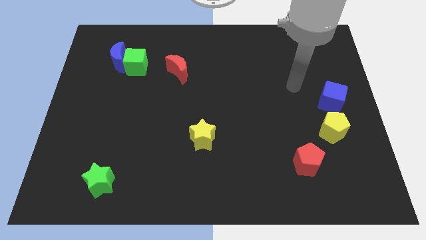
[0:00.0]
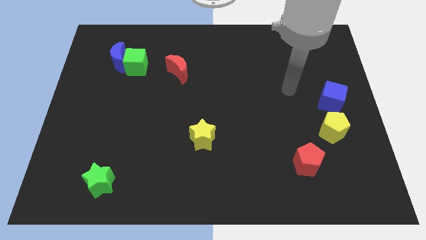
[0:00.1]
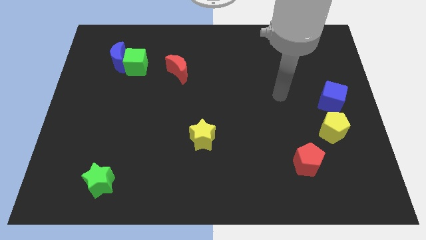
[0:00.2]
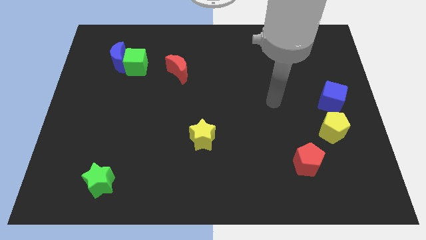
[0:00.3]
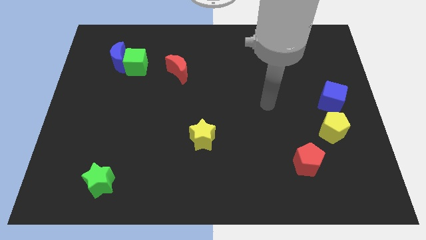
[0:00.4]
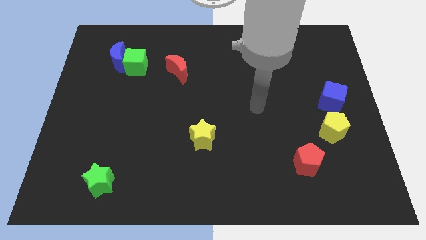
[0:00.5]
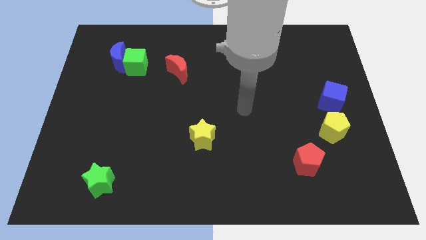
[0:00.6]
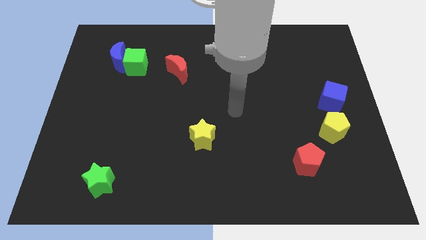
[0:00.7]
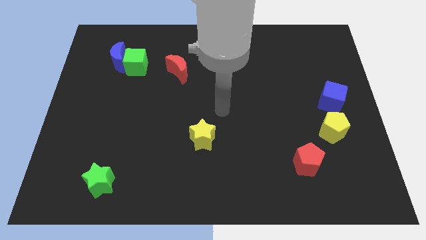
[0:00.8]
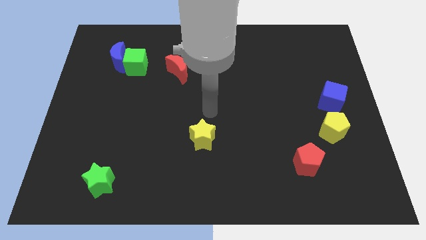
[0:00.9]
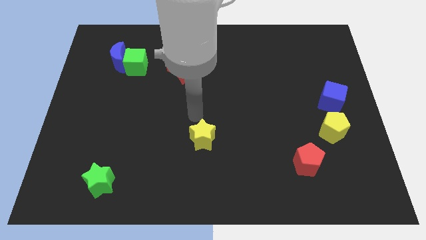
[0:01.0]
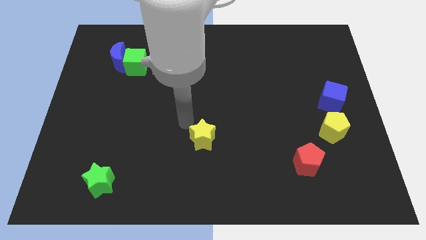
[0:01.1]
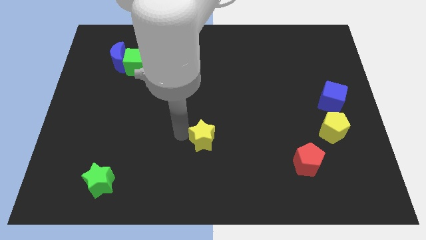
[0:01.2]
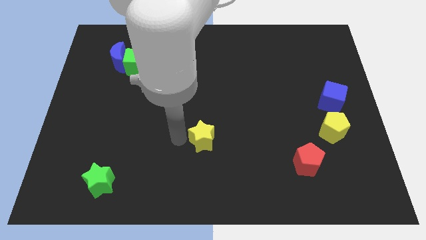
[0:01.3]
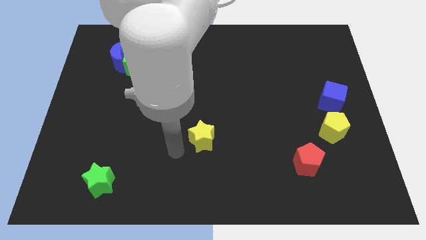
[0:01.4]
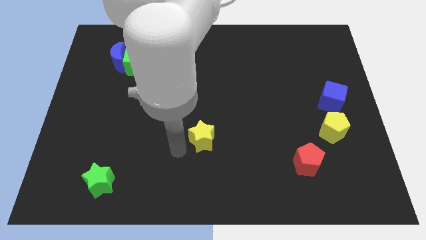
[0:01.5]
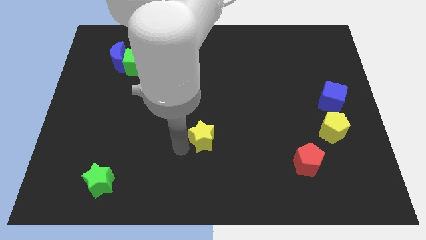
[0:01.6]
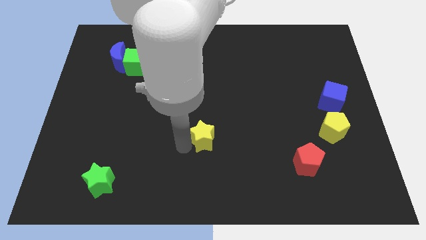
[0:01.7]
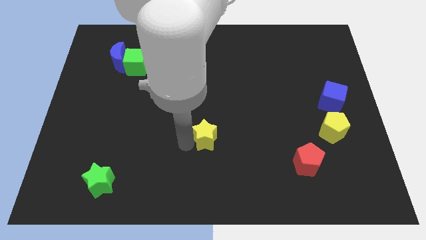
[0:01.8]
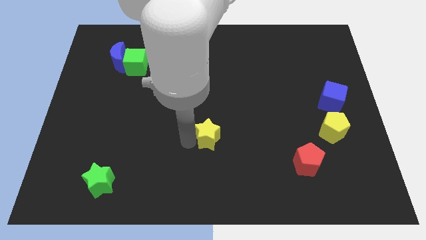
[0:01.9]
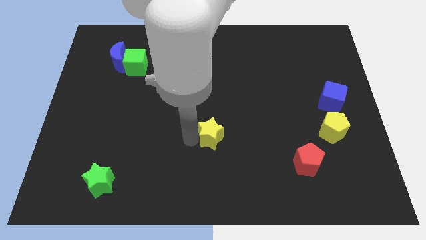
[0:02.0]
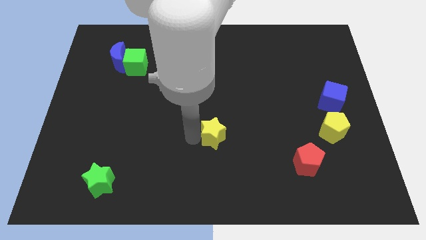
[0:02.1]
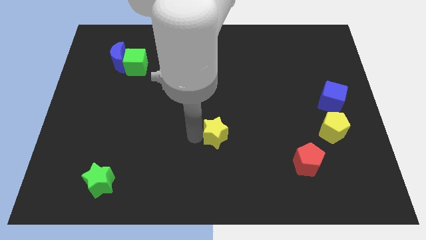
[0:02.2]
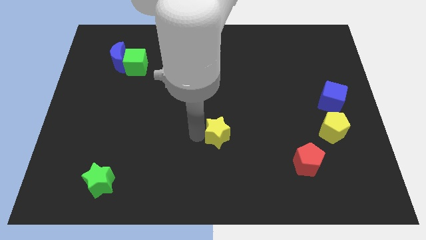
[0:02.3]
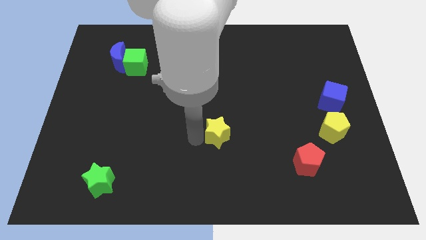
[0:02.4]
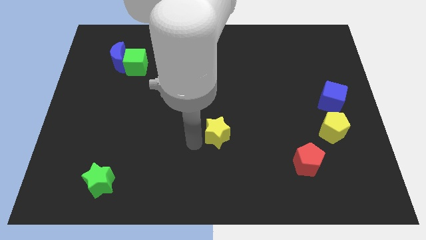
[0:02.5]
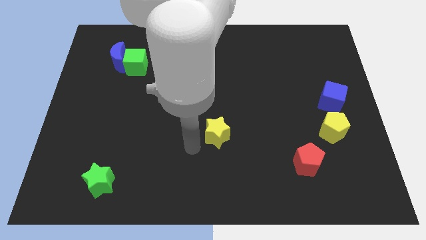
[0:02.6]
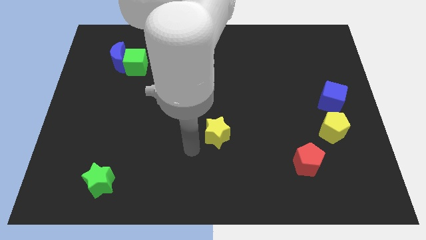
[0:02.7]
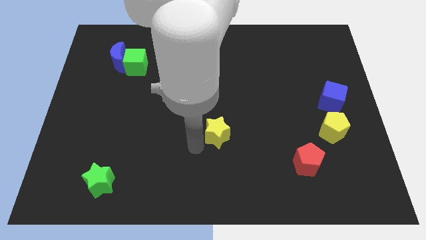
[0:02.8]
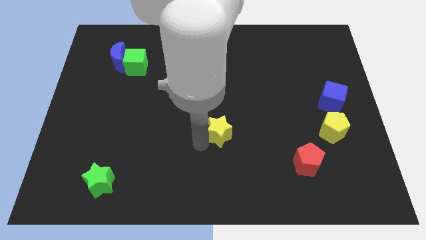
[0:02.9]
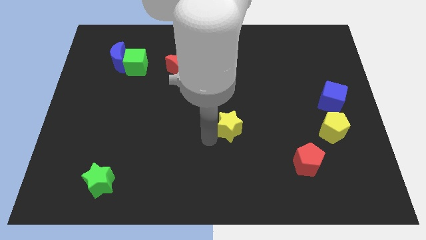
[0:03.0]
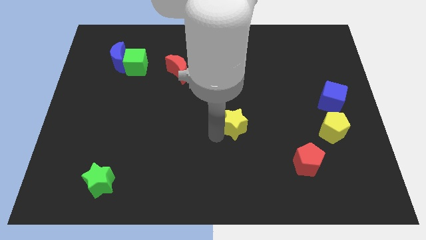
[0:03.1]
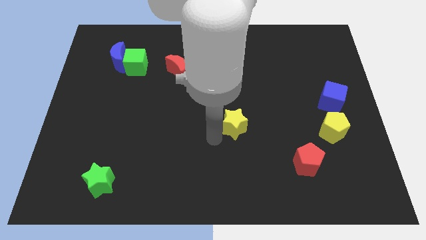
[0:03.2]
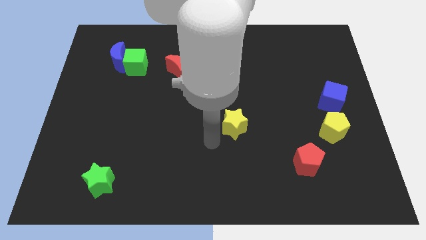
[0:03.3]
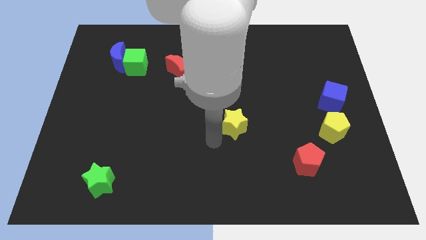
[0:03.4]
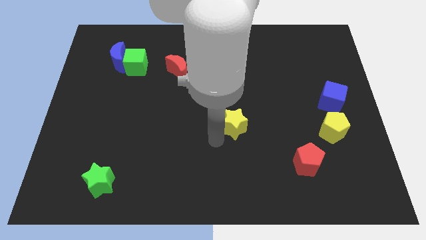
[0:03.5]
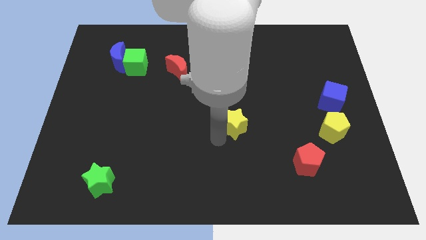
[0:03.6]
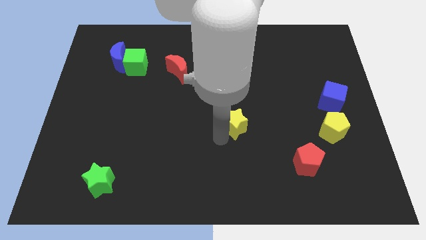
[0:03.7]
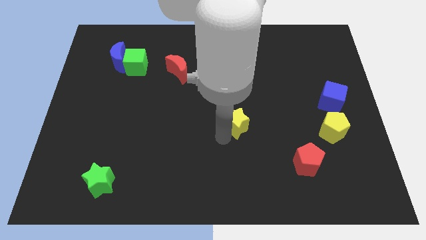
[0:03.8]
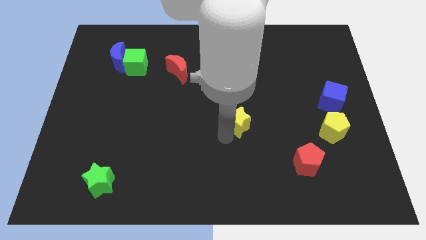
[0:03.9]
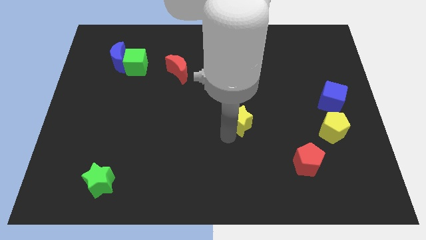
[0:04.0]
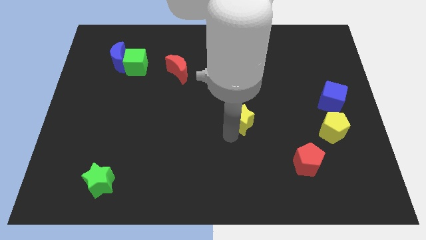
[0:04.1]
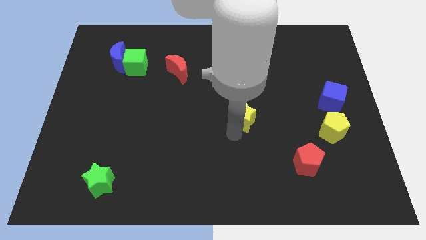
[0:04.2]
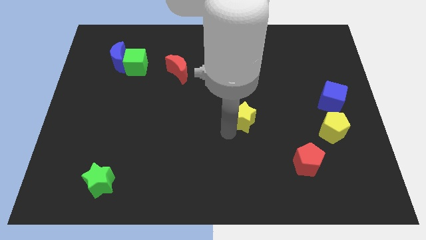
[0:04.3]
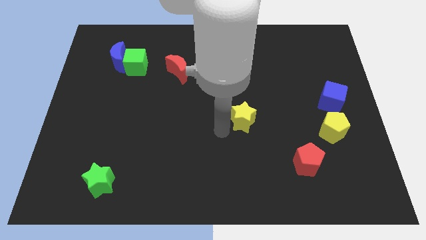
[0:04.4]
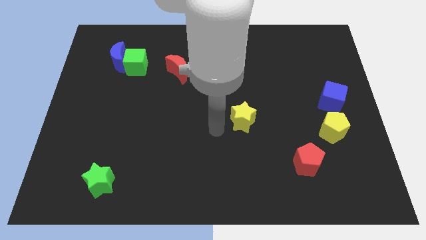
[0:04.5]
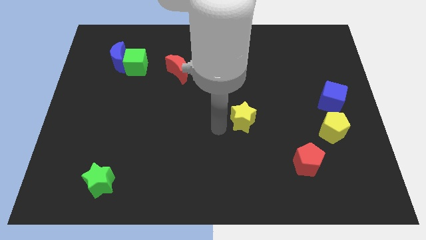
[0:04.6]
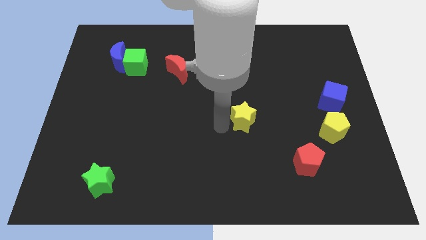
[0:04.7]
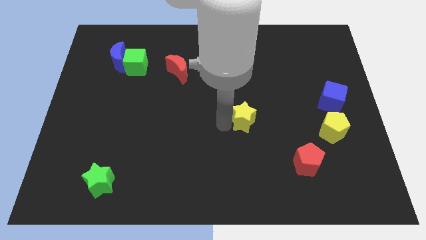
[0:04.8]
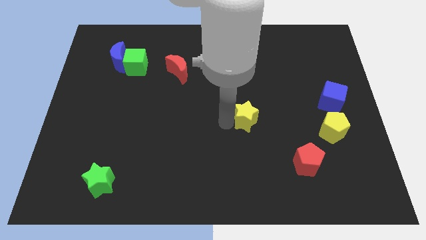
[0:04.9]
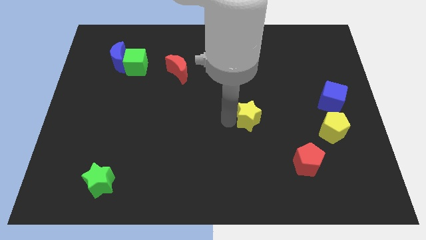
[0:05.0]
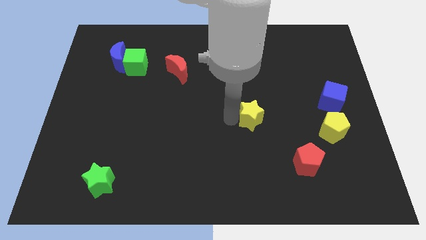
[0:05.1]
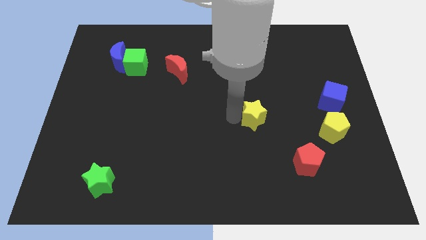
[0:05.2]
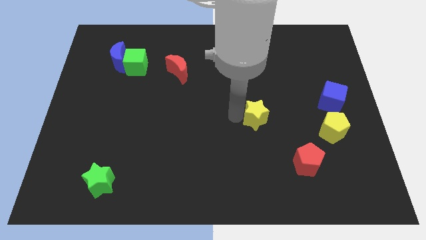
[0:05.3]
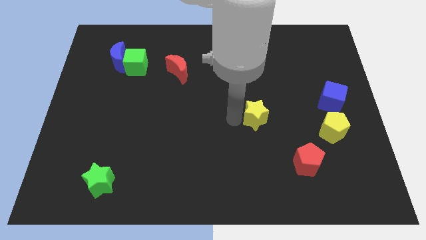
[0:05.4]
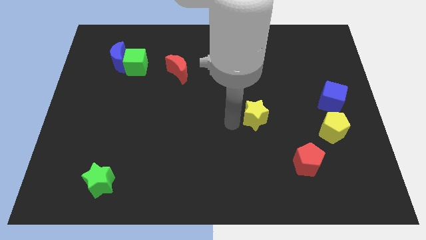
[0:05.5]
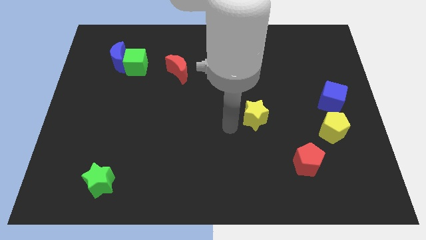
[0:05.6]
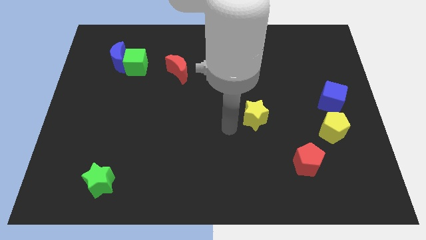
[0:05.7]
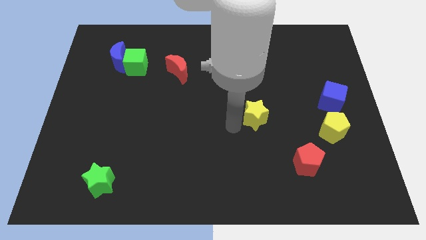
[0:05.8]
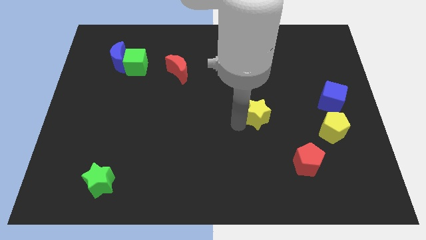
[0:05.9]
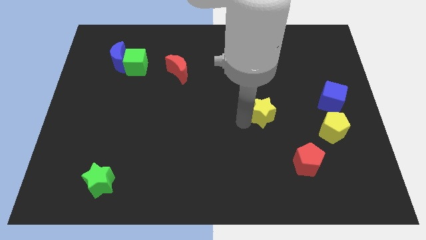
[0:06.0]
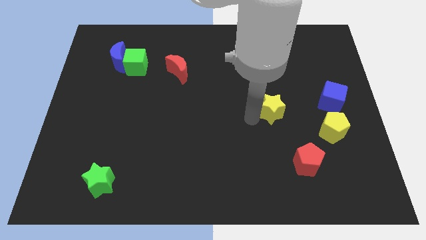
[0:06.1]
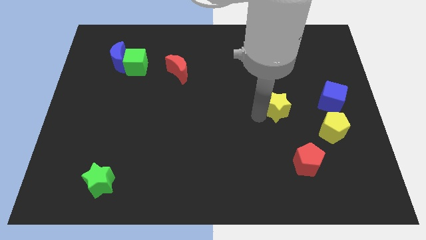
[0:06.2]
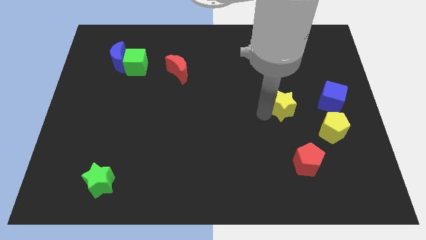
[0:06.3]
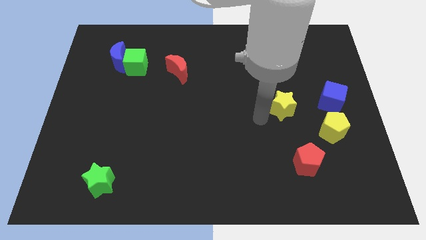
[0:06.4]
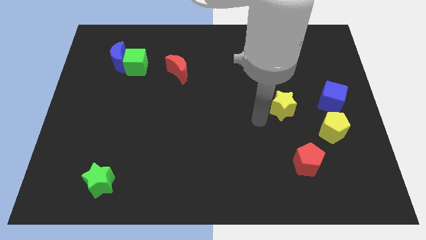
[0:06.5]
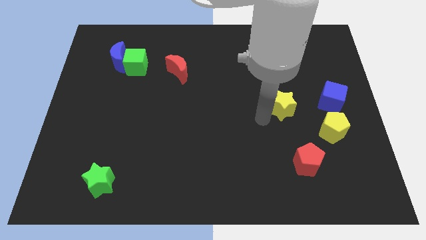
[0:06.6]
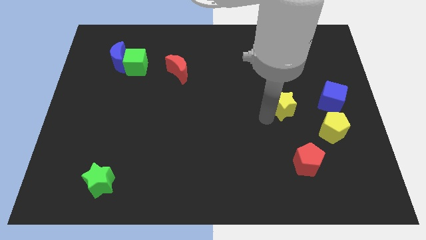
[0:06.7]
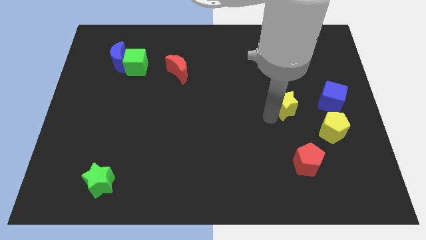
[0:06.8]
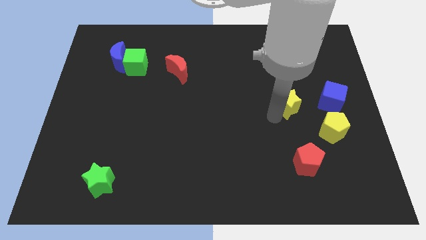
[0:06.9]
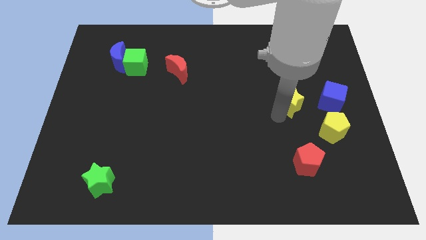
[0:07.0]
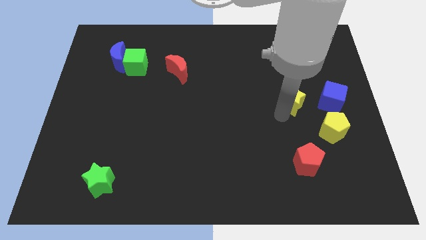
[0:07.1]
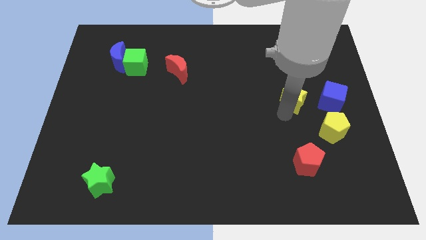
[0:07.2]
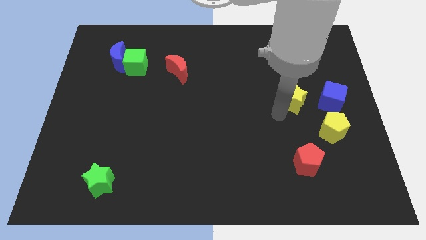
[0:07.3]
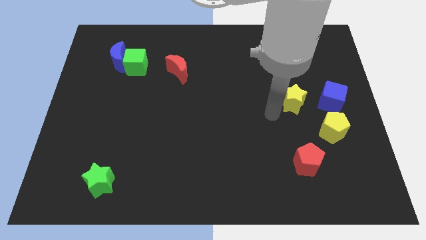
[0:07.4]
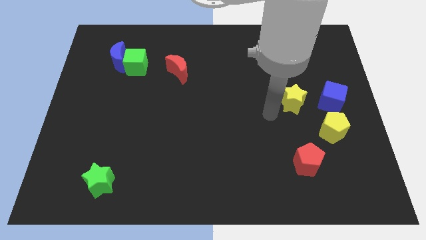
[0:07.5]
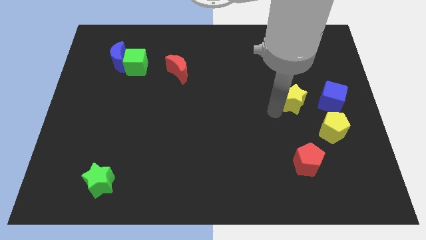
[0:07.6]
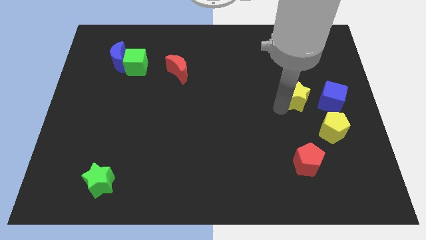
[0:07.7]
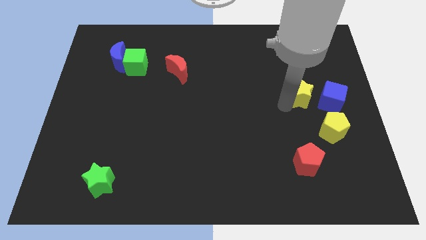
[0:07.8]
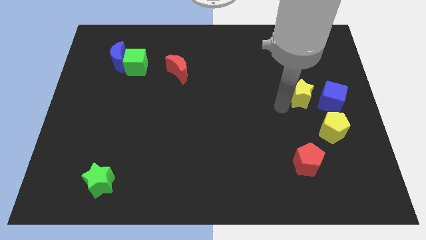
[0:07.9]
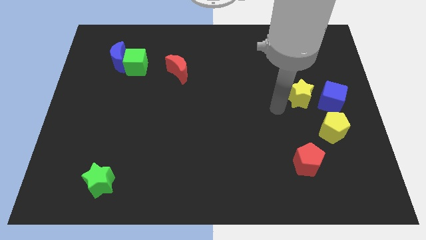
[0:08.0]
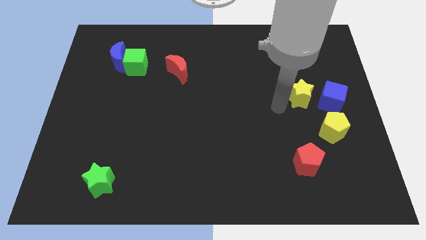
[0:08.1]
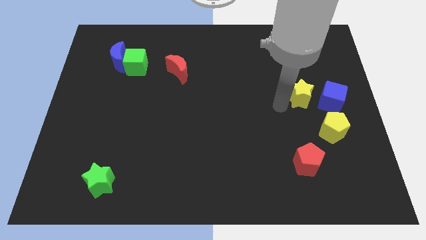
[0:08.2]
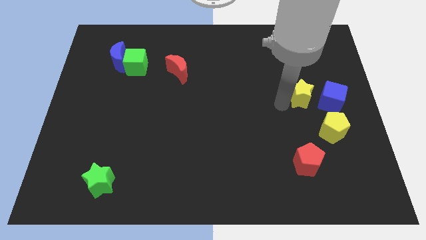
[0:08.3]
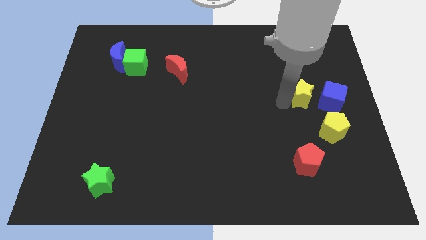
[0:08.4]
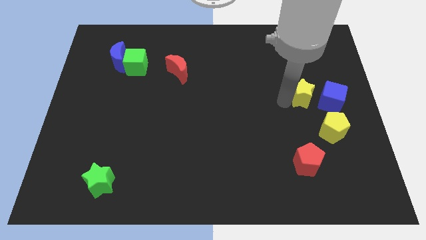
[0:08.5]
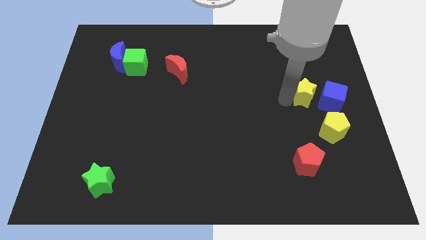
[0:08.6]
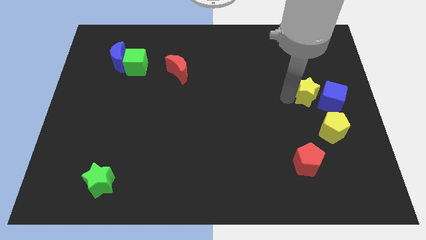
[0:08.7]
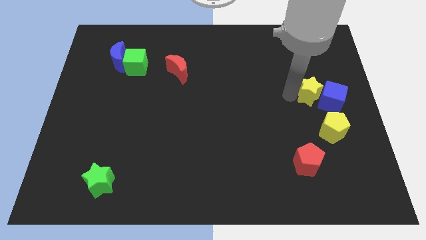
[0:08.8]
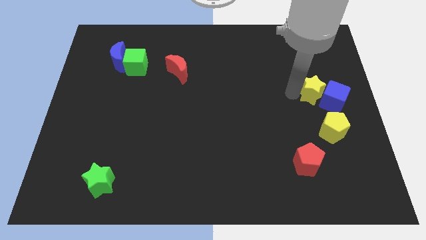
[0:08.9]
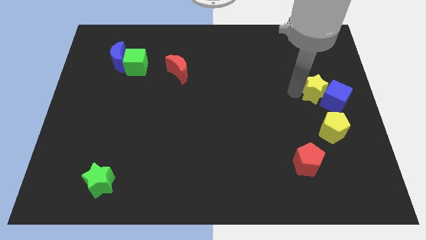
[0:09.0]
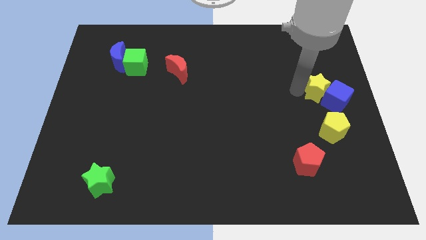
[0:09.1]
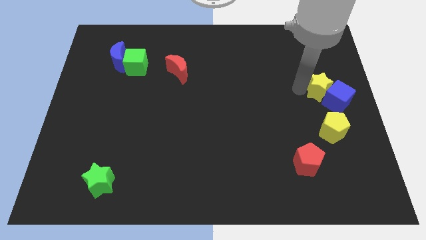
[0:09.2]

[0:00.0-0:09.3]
push the yellow star to the center right
